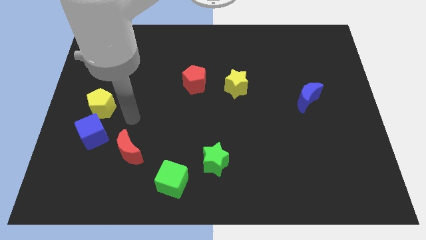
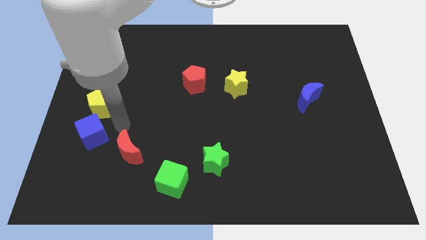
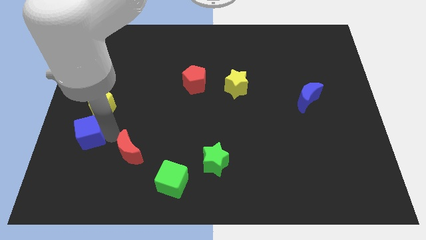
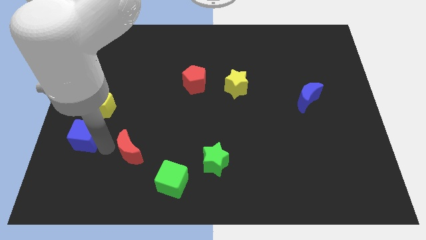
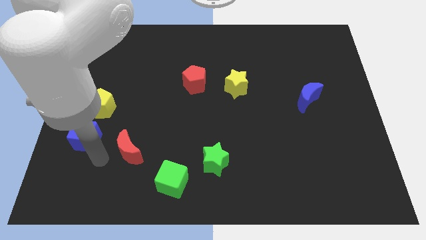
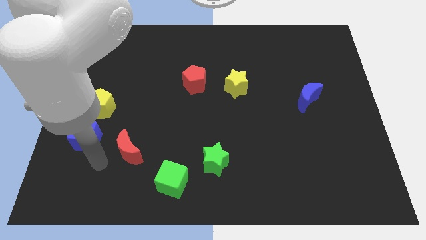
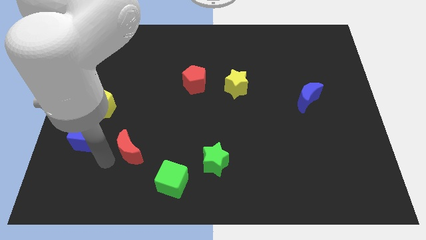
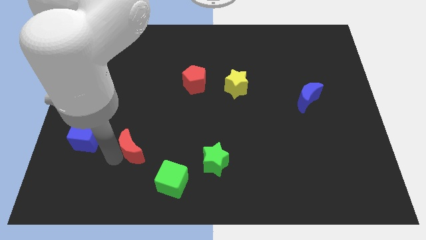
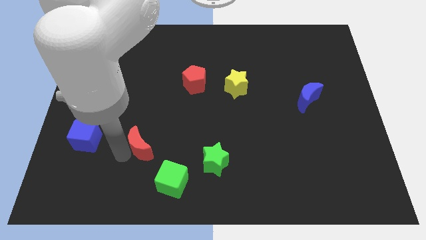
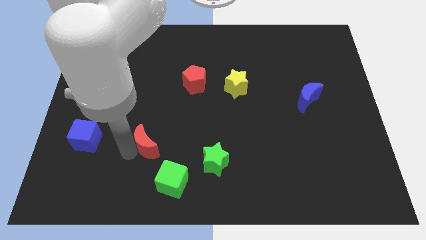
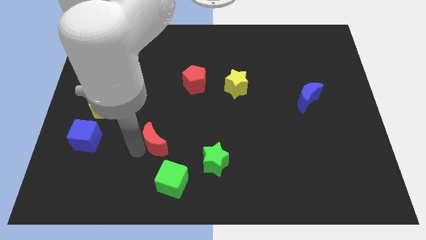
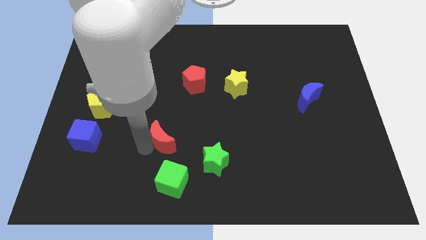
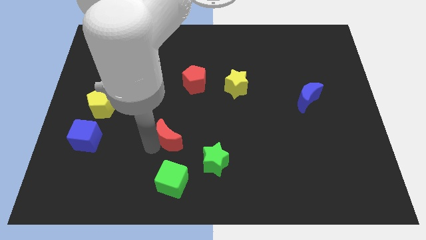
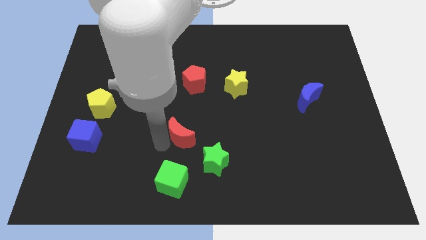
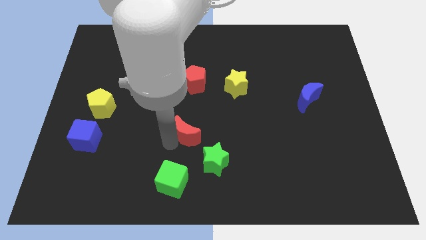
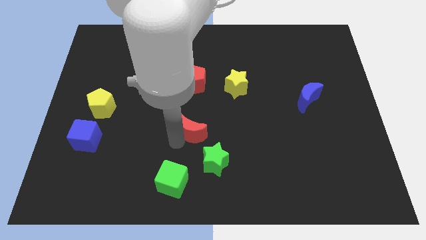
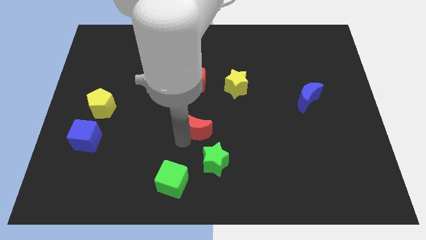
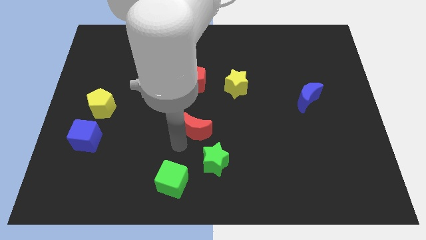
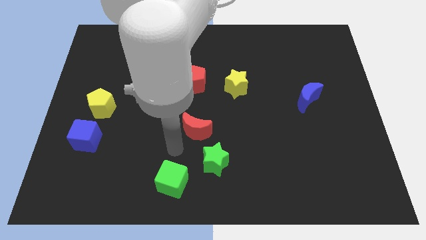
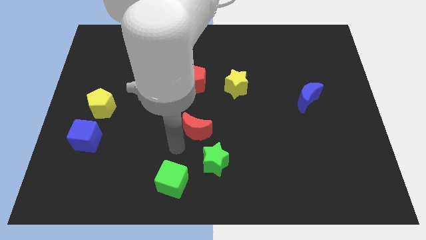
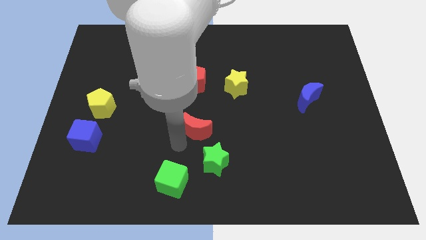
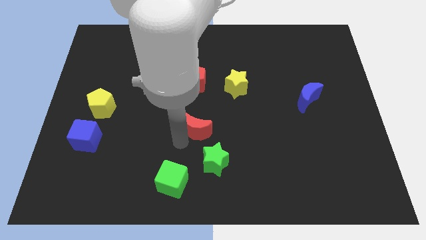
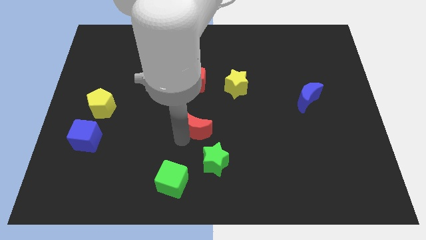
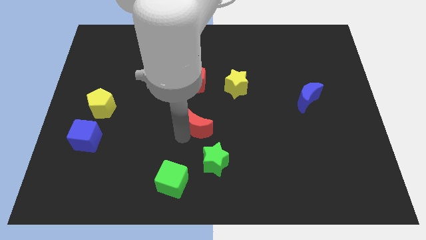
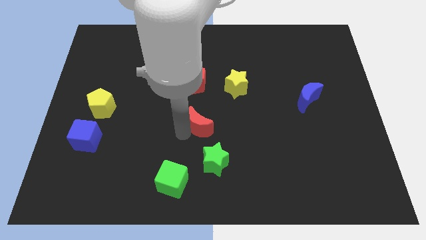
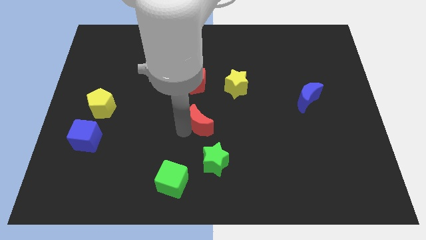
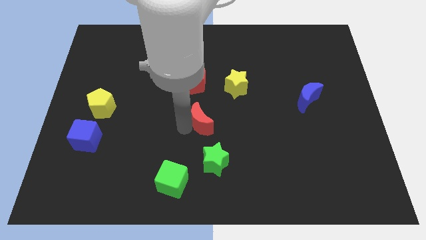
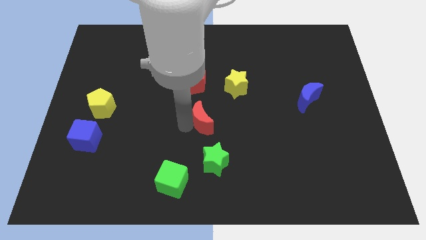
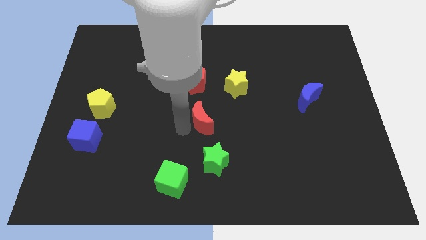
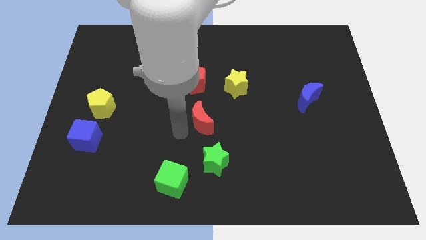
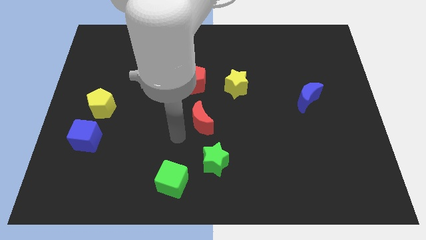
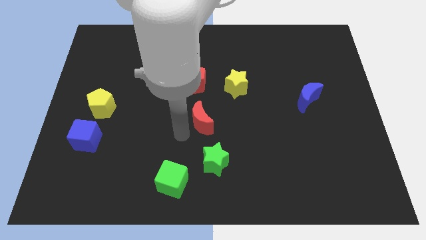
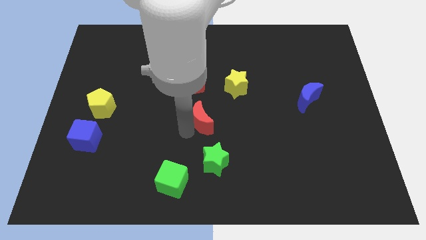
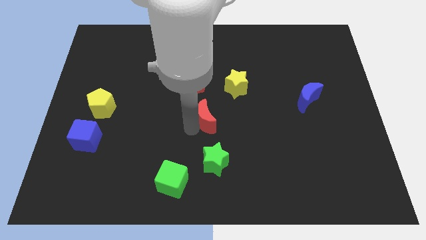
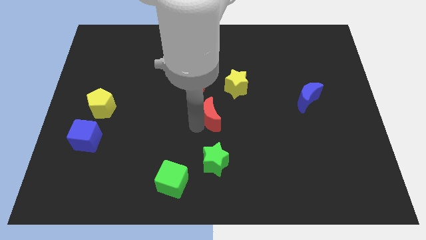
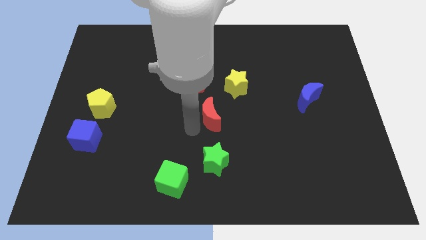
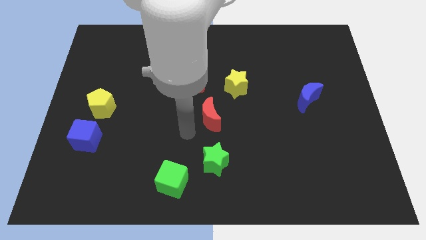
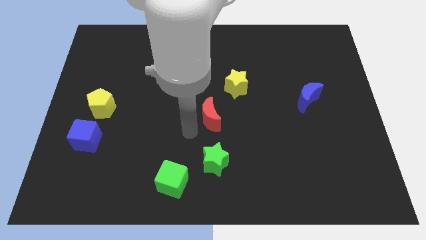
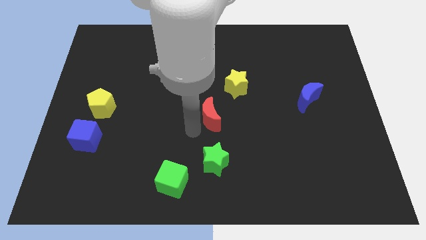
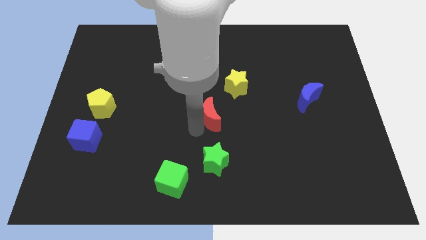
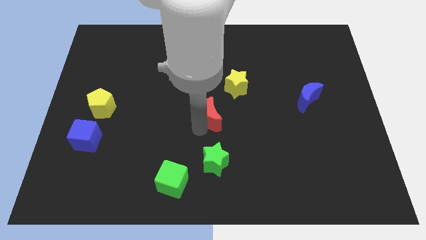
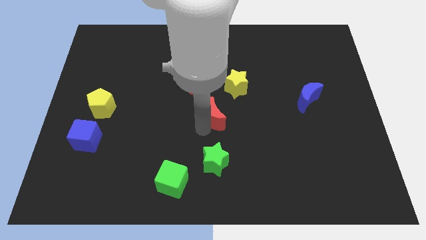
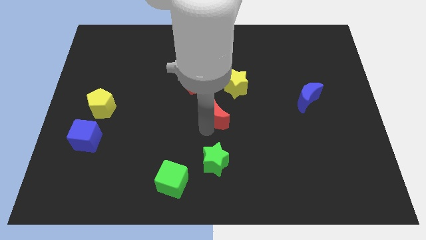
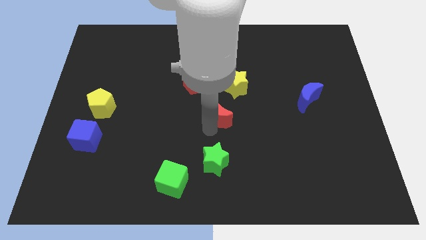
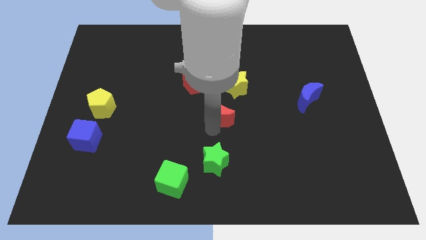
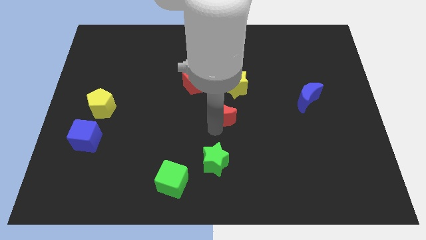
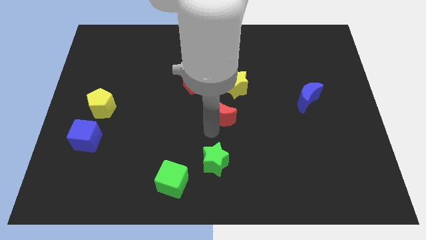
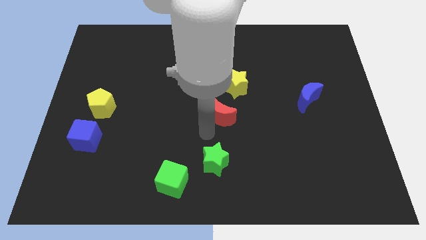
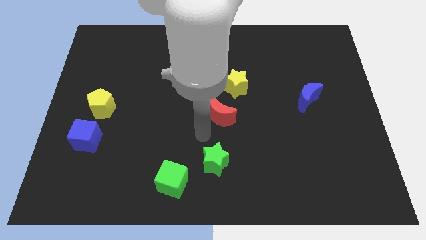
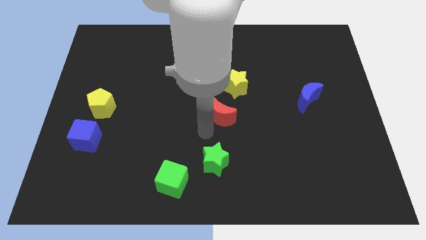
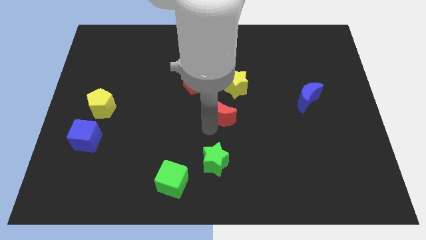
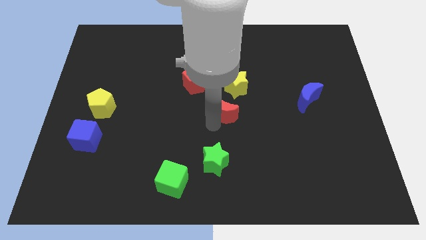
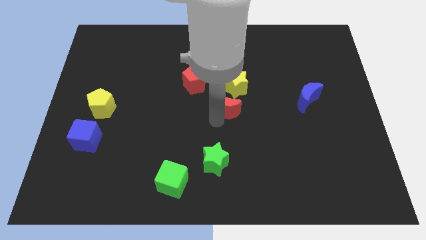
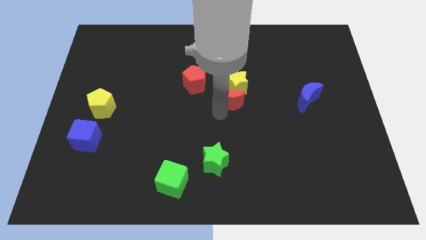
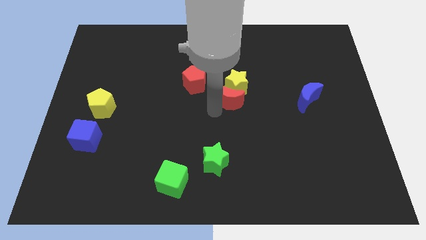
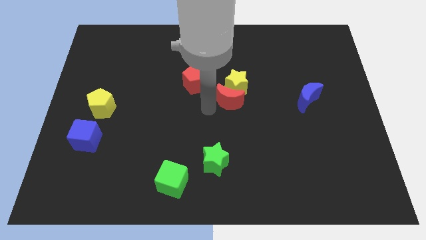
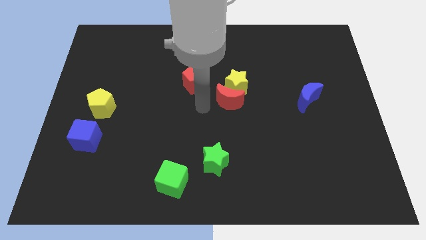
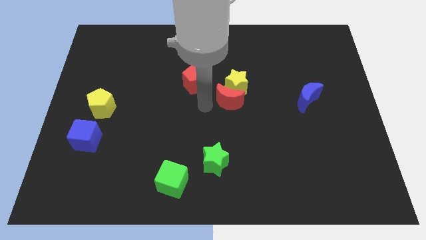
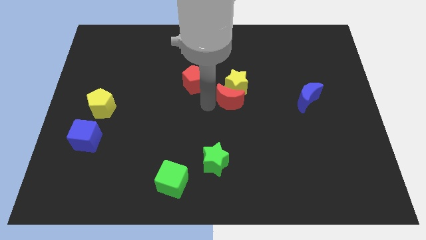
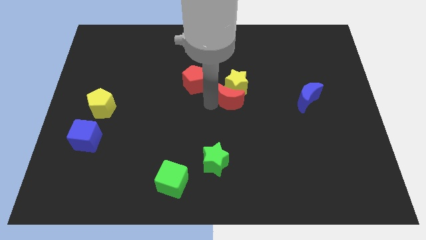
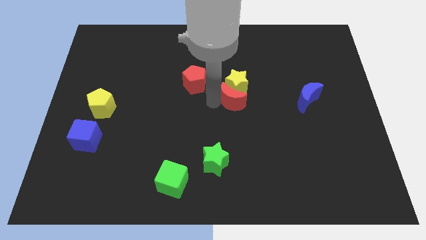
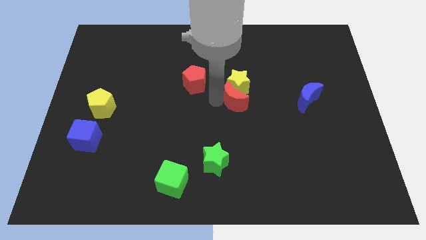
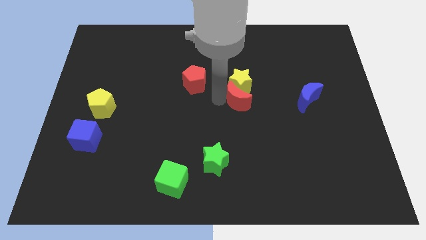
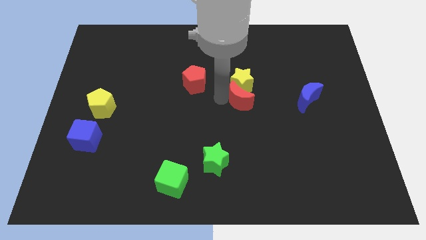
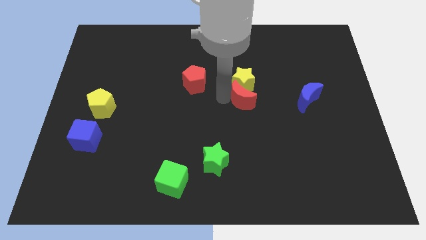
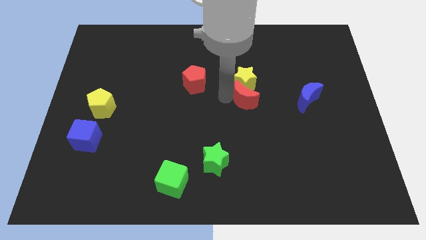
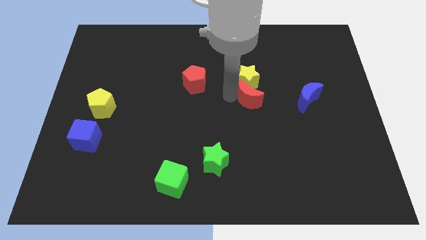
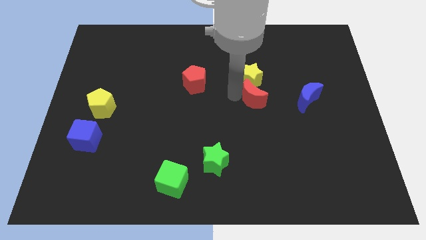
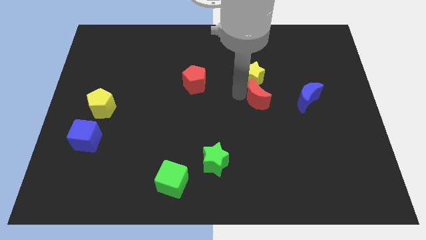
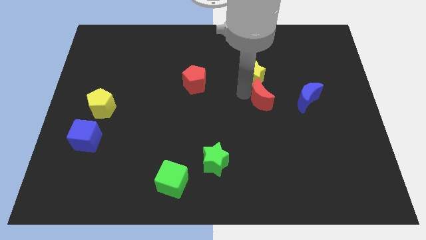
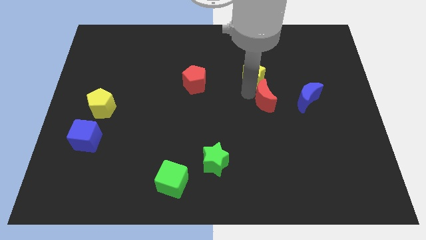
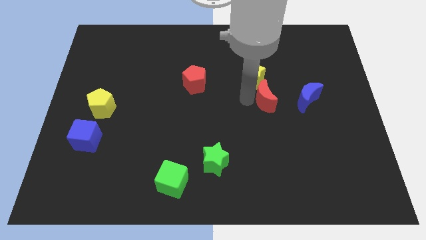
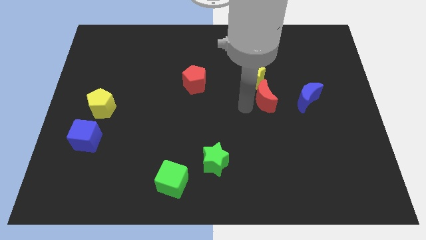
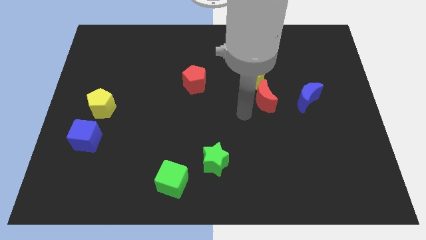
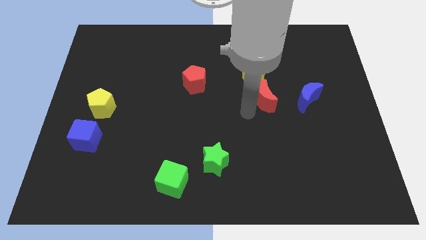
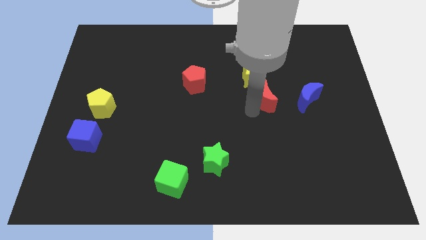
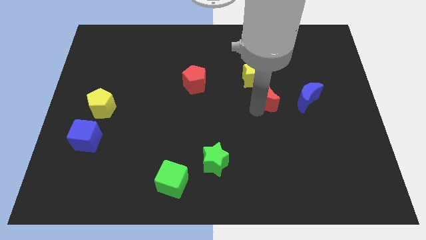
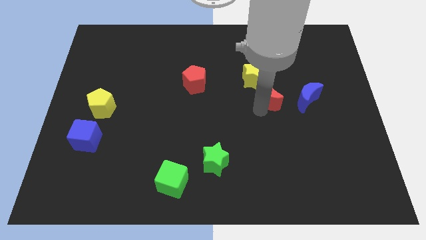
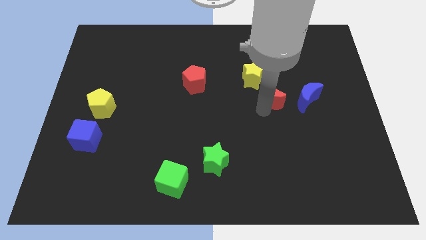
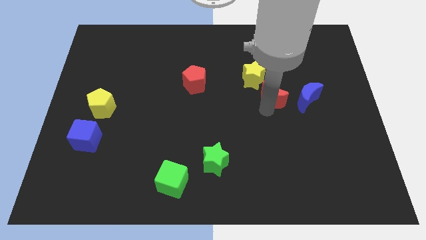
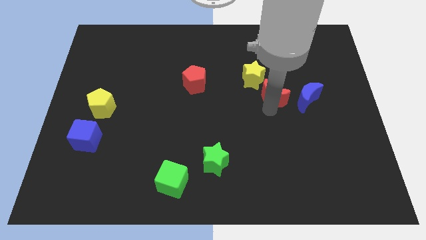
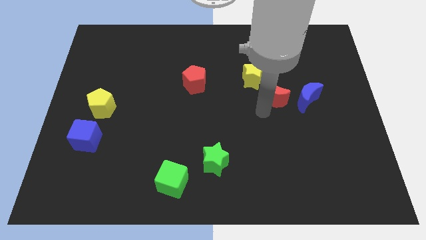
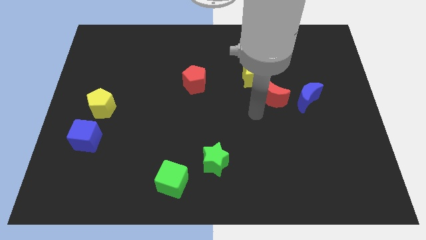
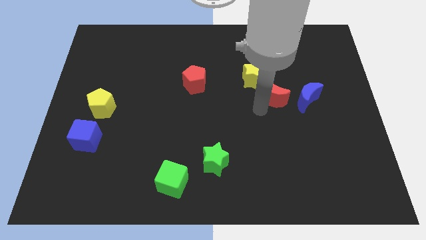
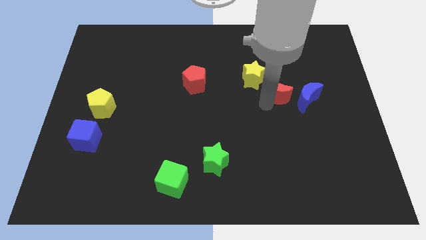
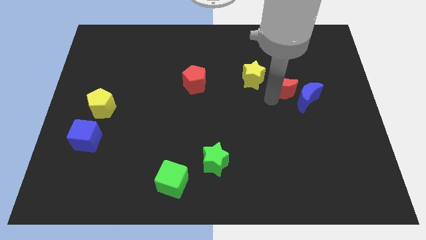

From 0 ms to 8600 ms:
slide the red moon to the right side of the yellow star
